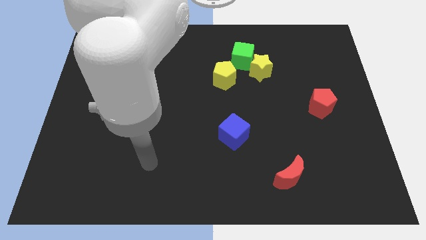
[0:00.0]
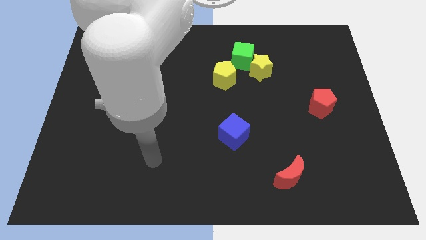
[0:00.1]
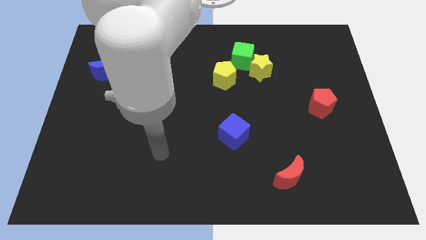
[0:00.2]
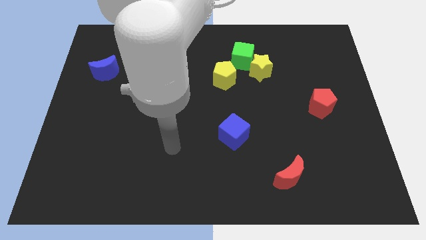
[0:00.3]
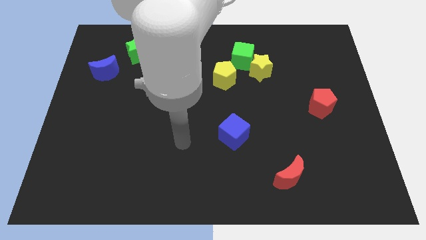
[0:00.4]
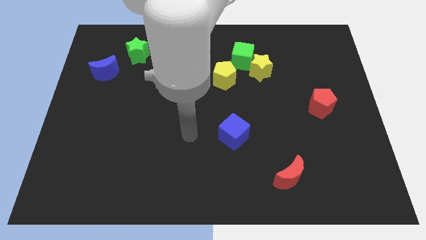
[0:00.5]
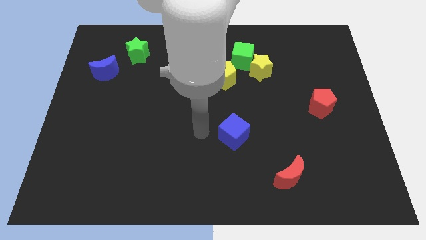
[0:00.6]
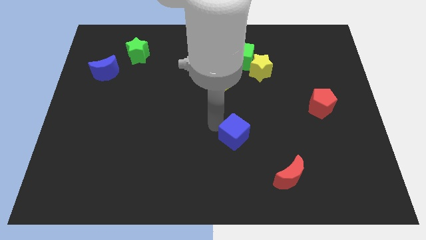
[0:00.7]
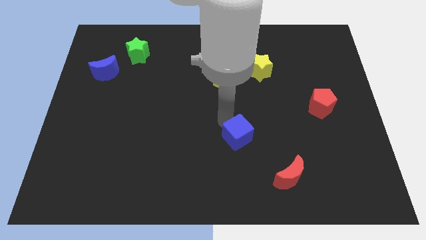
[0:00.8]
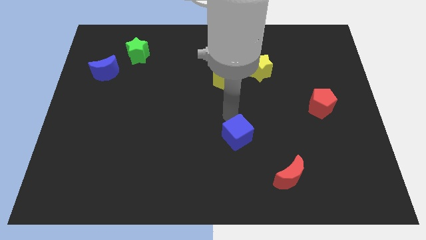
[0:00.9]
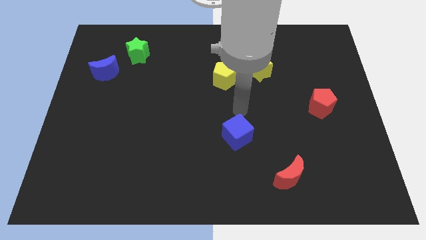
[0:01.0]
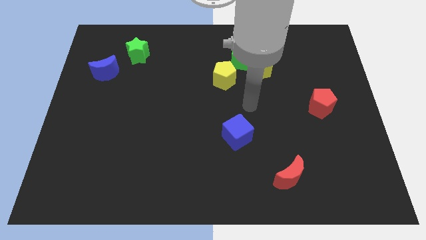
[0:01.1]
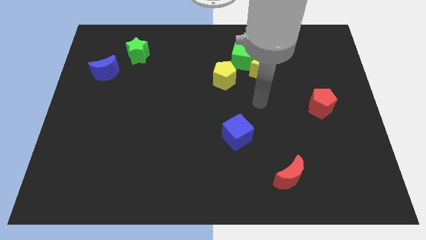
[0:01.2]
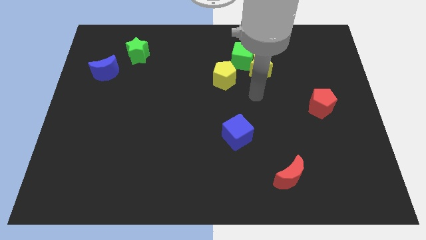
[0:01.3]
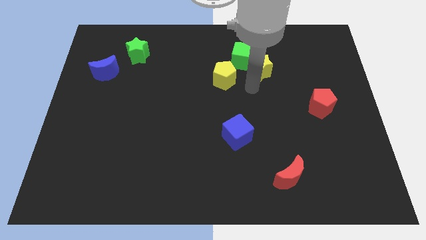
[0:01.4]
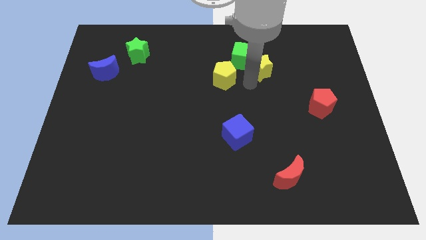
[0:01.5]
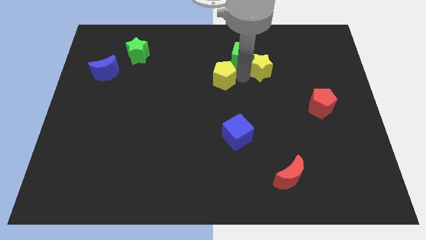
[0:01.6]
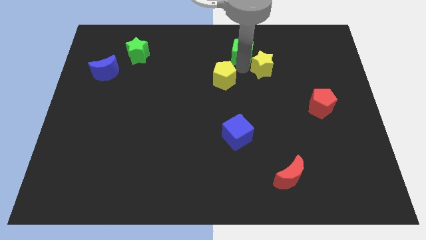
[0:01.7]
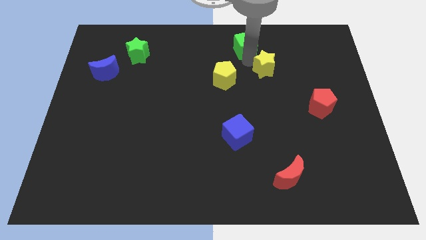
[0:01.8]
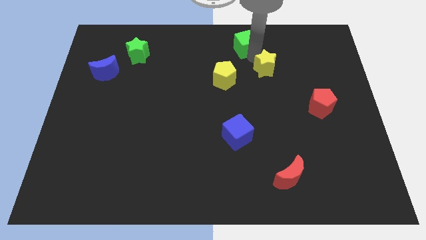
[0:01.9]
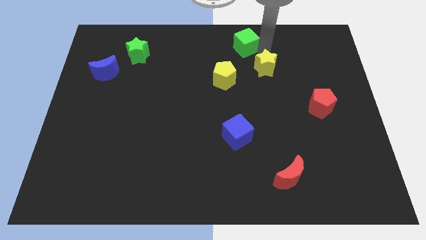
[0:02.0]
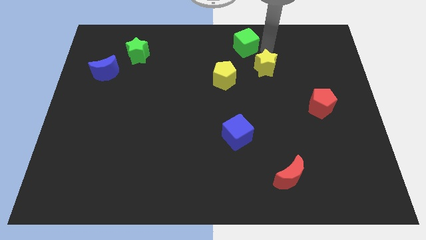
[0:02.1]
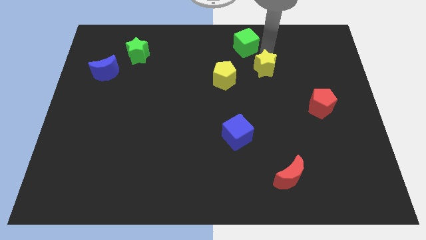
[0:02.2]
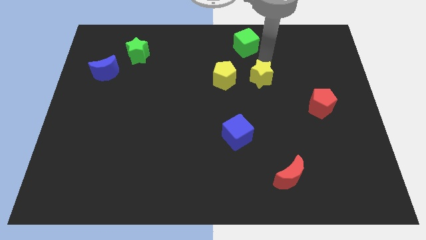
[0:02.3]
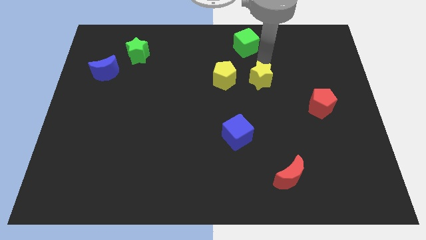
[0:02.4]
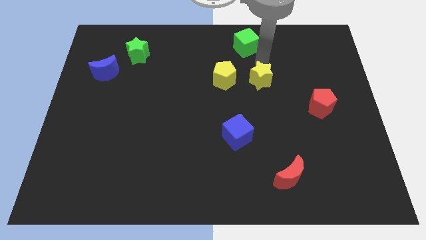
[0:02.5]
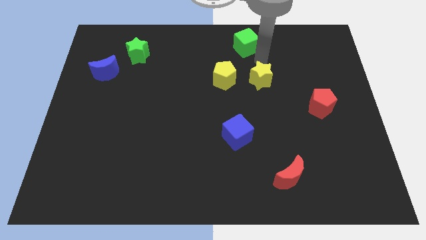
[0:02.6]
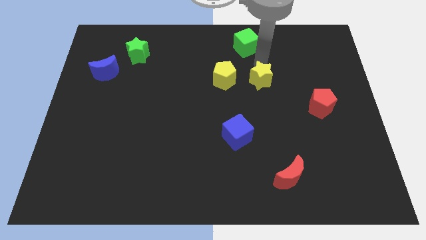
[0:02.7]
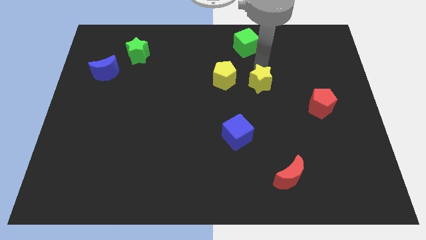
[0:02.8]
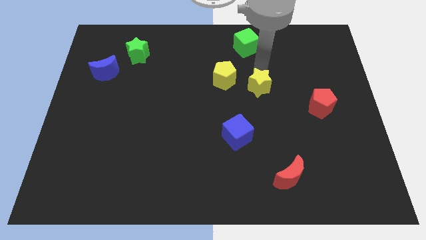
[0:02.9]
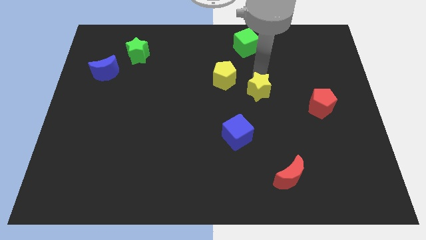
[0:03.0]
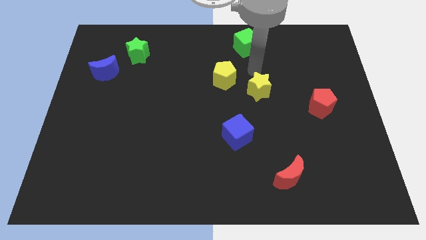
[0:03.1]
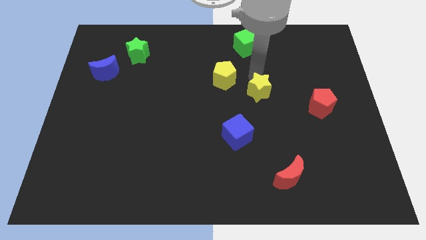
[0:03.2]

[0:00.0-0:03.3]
push the yellow star downwards a little bit

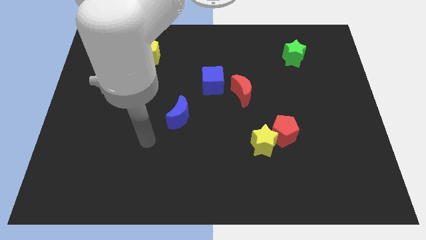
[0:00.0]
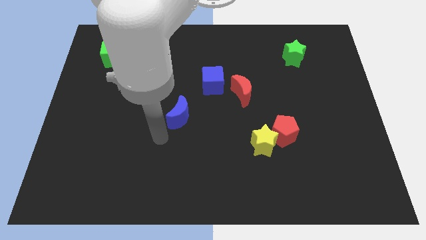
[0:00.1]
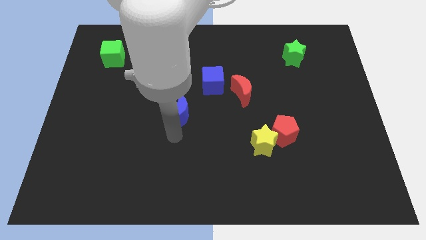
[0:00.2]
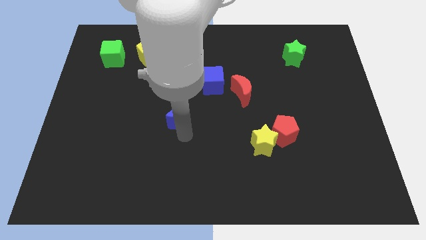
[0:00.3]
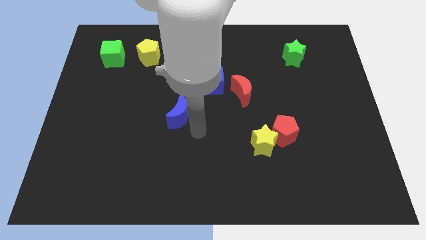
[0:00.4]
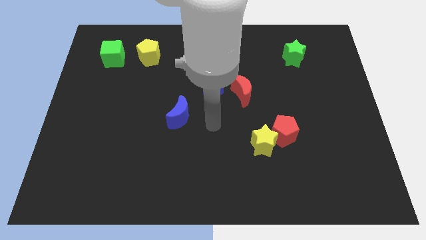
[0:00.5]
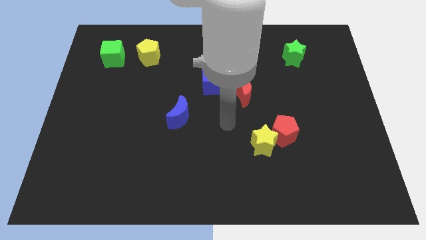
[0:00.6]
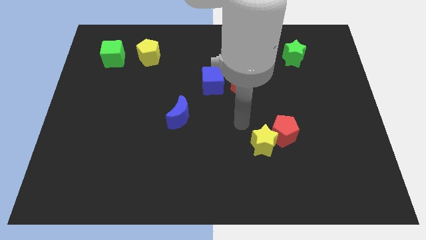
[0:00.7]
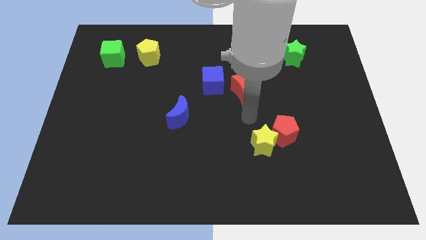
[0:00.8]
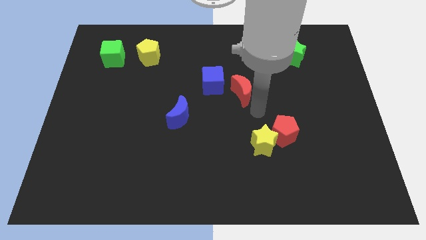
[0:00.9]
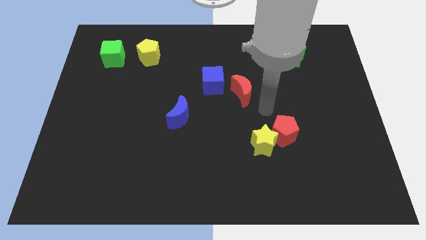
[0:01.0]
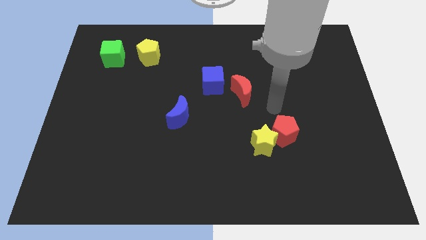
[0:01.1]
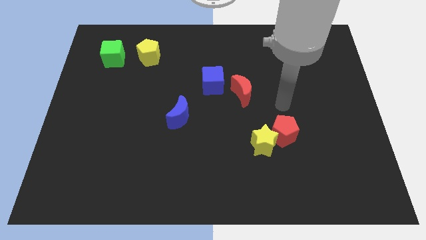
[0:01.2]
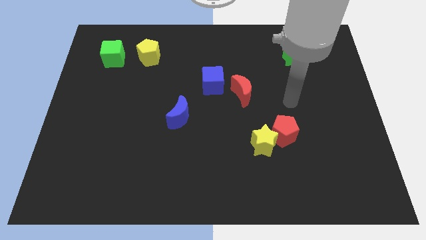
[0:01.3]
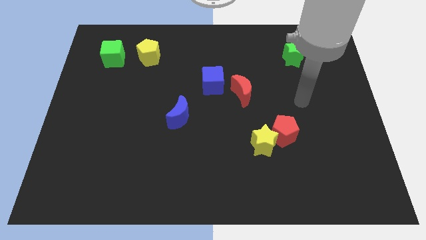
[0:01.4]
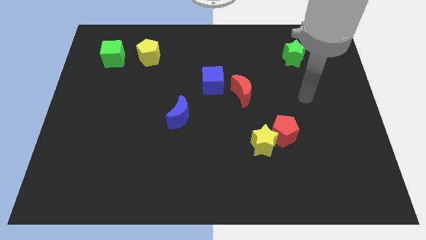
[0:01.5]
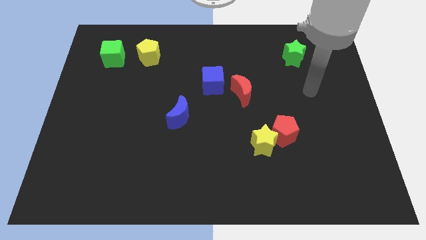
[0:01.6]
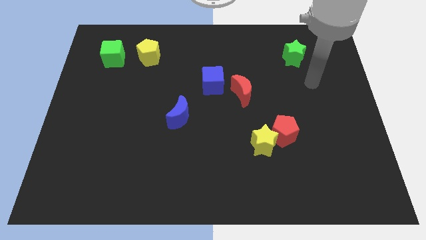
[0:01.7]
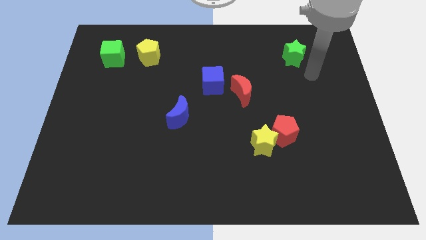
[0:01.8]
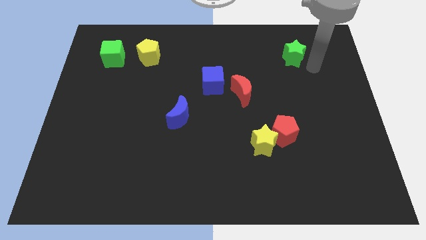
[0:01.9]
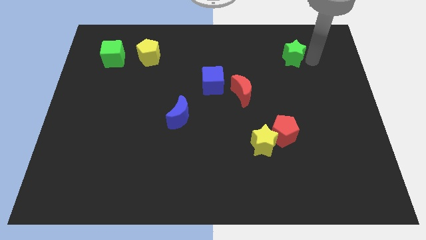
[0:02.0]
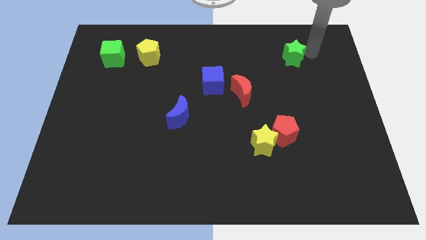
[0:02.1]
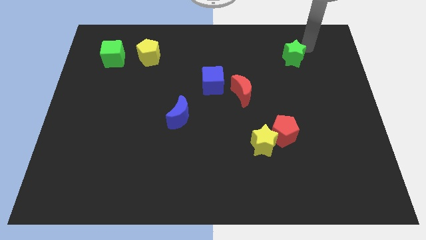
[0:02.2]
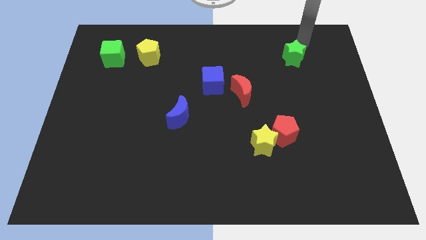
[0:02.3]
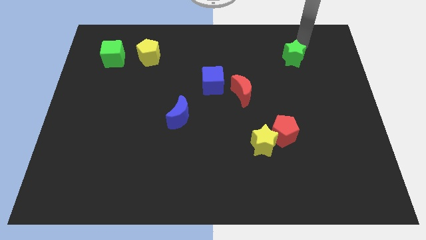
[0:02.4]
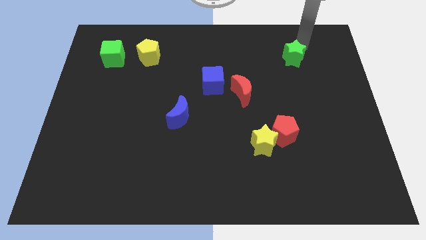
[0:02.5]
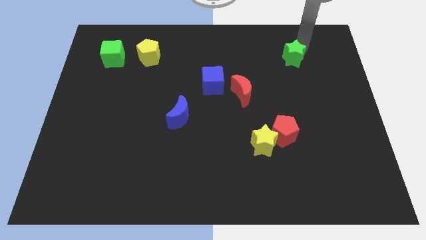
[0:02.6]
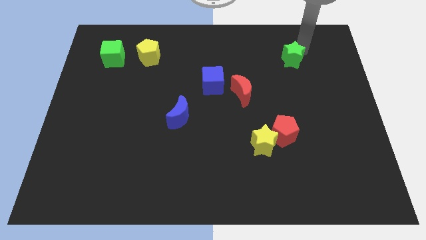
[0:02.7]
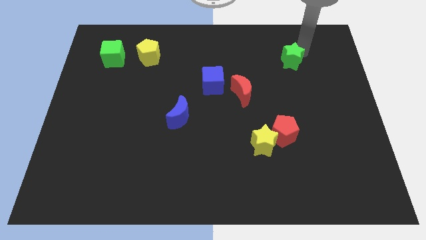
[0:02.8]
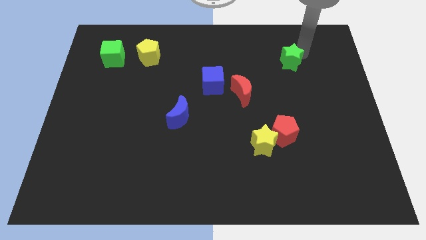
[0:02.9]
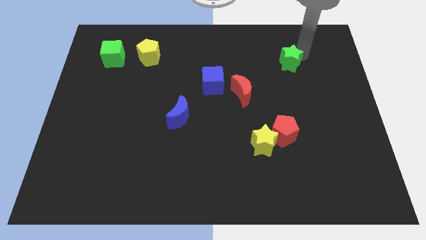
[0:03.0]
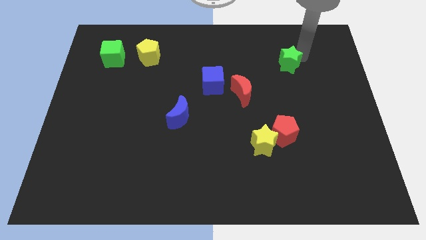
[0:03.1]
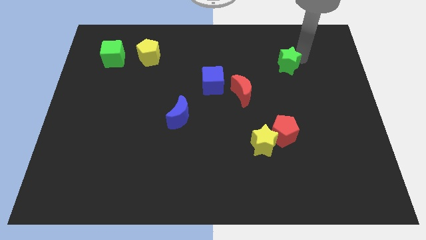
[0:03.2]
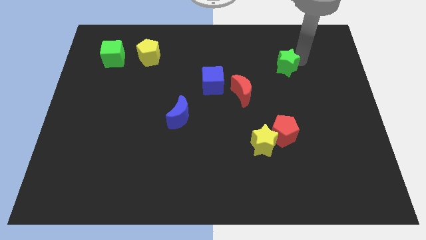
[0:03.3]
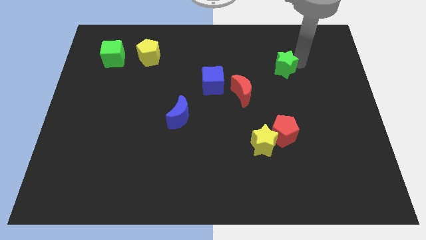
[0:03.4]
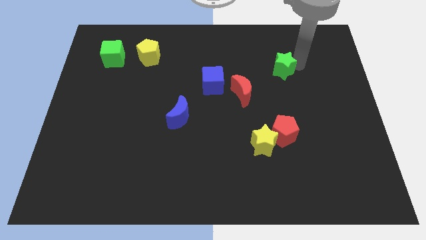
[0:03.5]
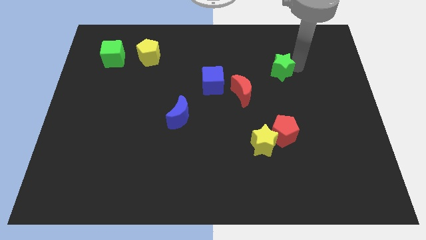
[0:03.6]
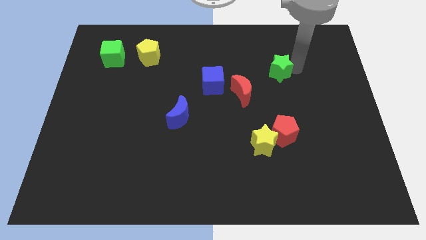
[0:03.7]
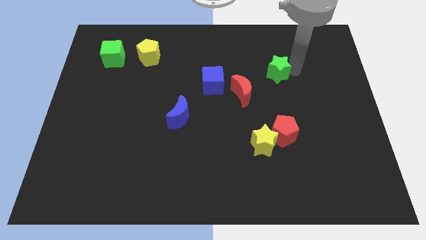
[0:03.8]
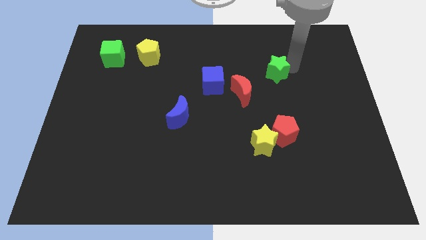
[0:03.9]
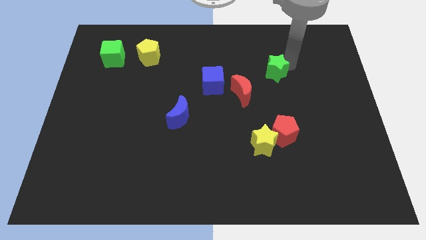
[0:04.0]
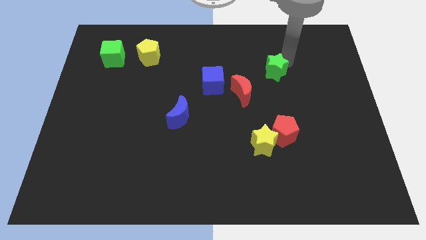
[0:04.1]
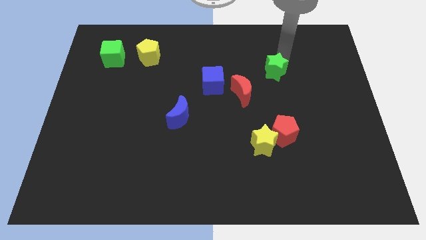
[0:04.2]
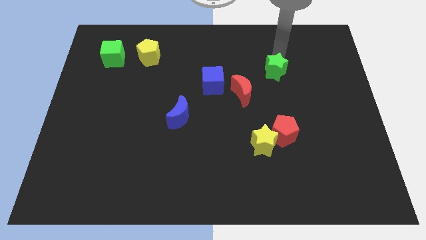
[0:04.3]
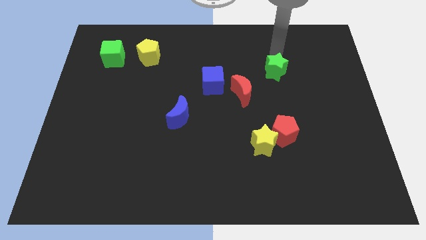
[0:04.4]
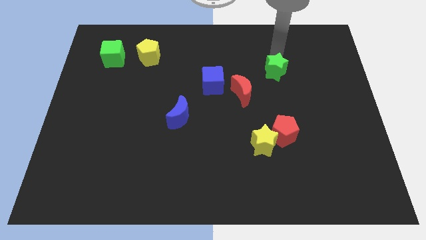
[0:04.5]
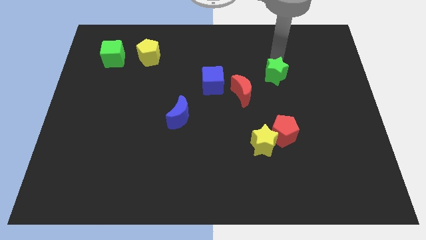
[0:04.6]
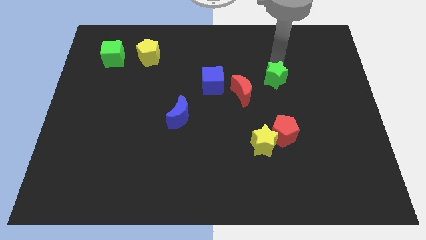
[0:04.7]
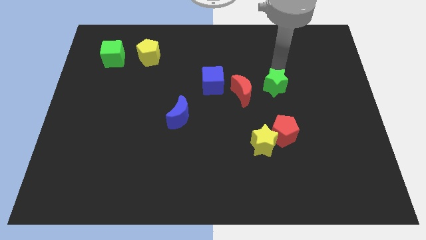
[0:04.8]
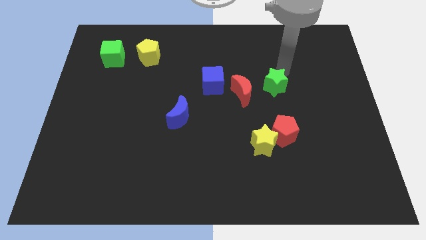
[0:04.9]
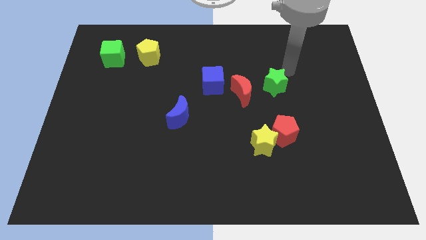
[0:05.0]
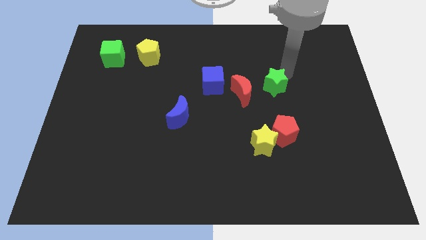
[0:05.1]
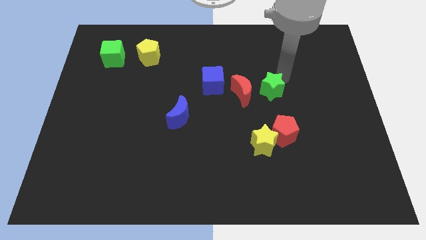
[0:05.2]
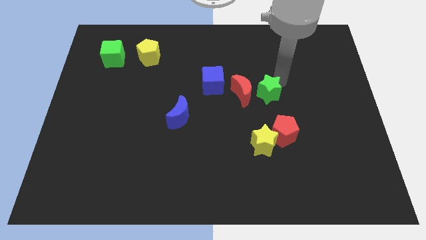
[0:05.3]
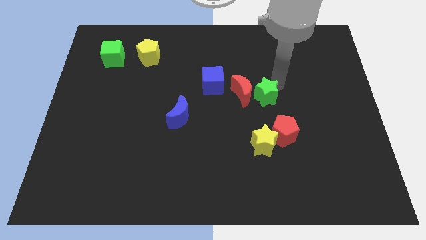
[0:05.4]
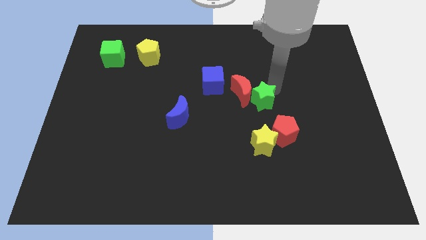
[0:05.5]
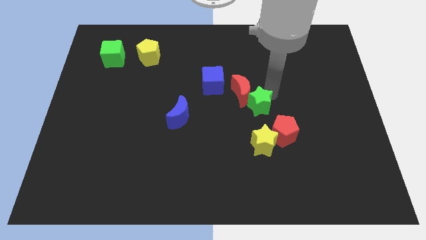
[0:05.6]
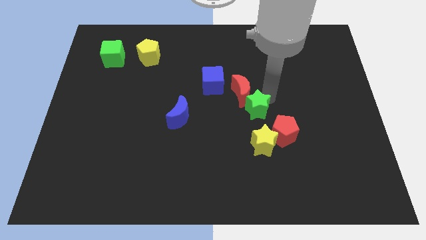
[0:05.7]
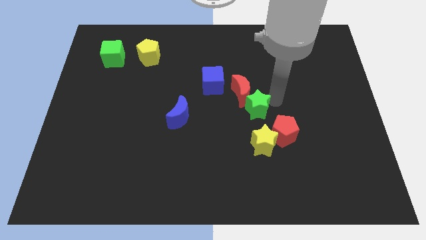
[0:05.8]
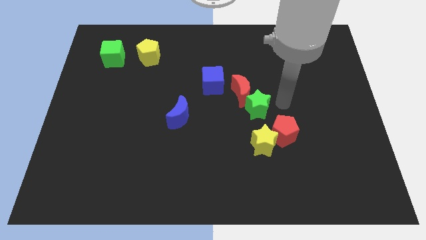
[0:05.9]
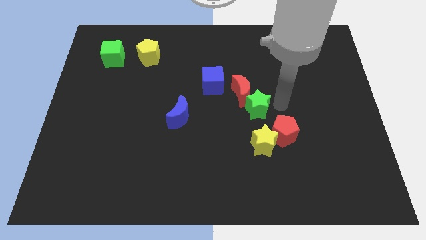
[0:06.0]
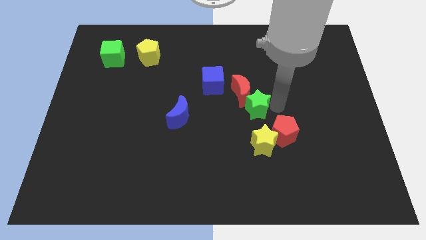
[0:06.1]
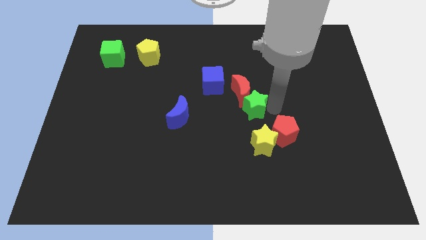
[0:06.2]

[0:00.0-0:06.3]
push the green star diagonally down and to the left
